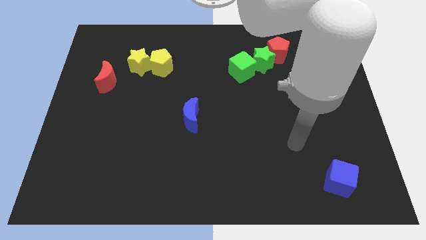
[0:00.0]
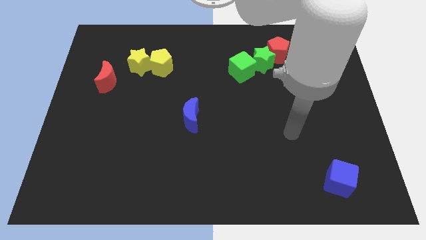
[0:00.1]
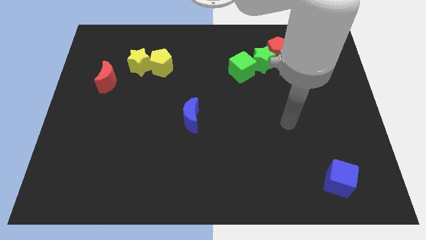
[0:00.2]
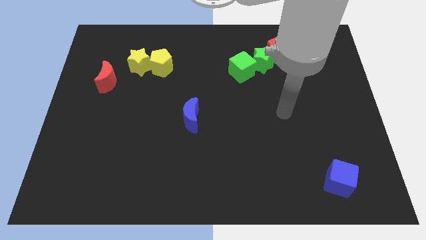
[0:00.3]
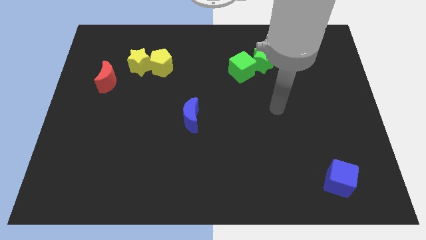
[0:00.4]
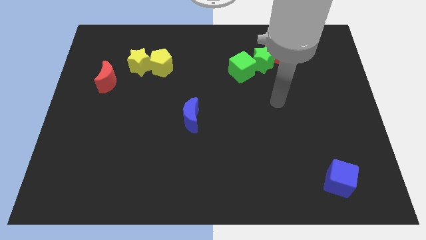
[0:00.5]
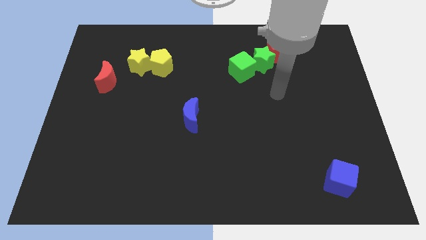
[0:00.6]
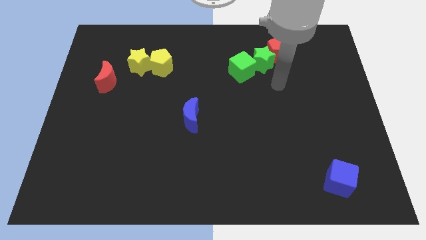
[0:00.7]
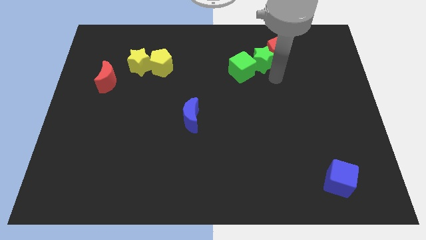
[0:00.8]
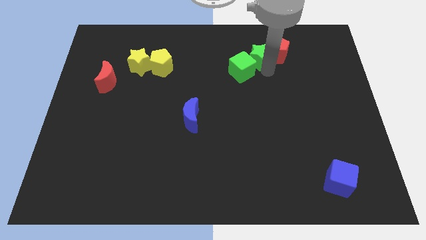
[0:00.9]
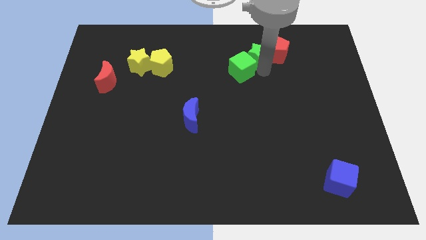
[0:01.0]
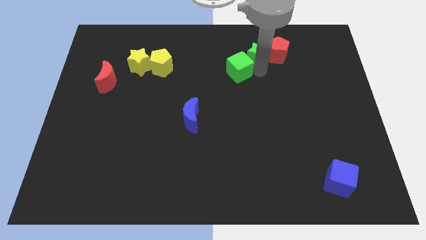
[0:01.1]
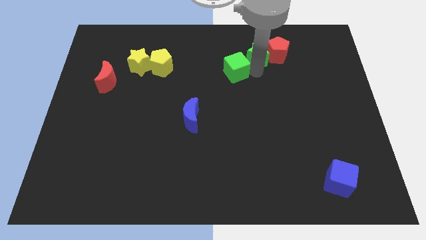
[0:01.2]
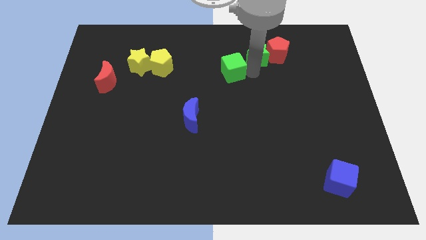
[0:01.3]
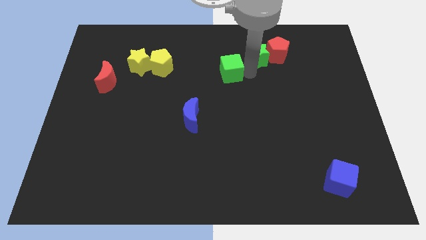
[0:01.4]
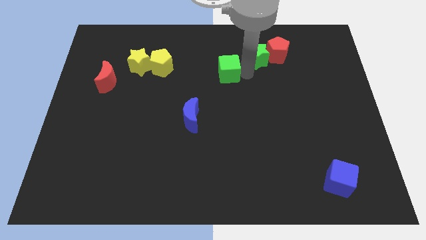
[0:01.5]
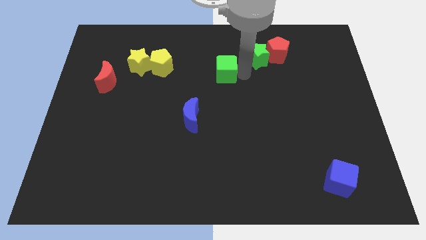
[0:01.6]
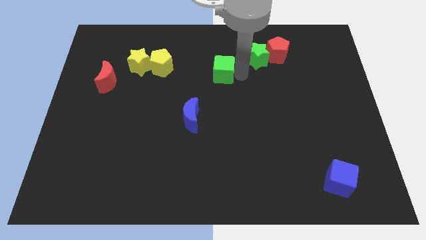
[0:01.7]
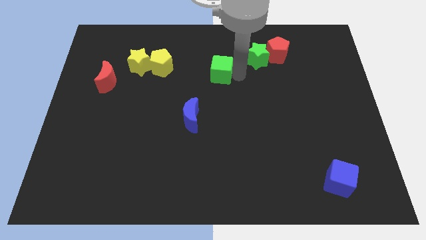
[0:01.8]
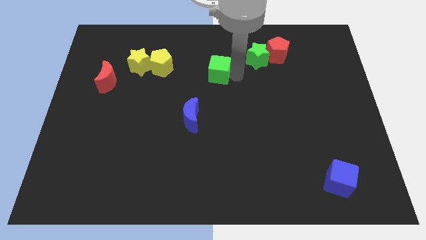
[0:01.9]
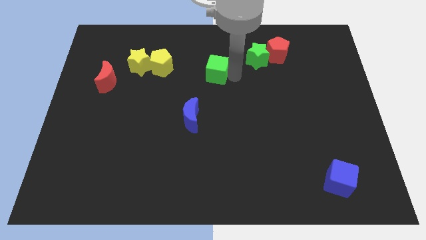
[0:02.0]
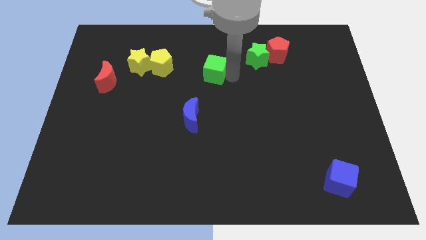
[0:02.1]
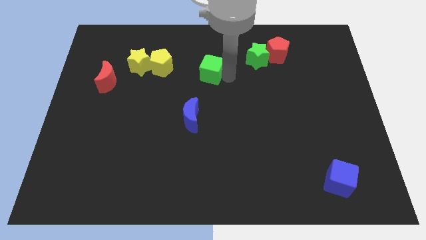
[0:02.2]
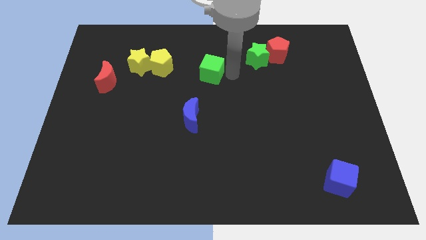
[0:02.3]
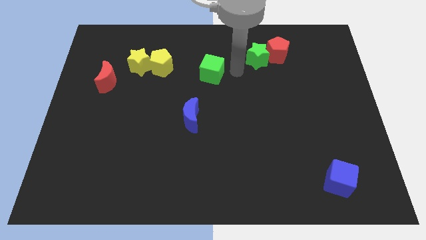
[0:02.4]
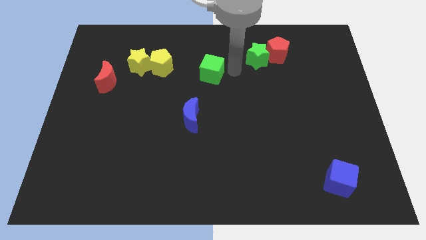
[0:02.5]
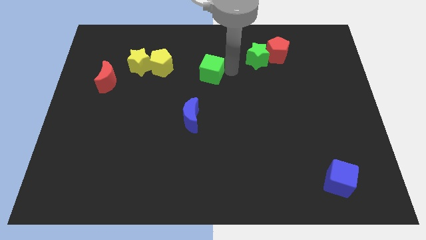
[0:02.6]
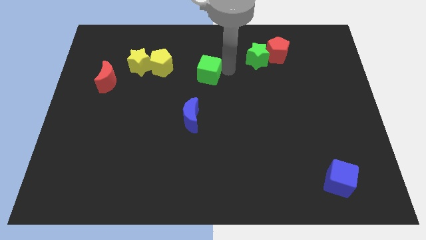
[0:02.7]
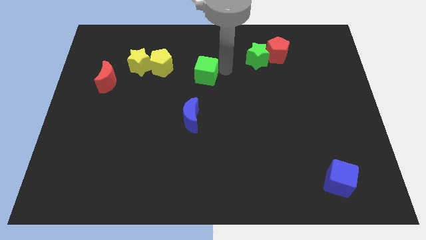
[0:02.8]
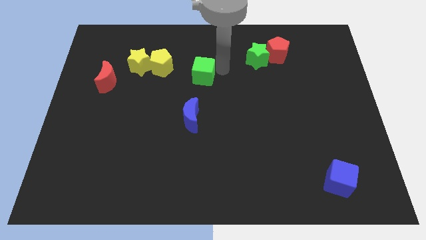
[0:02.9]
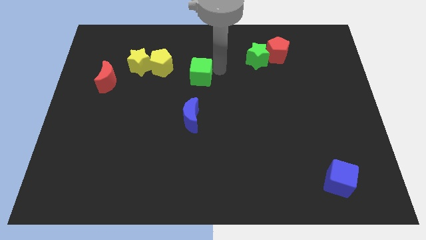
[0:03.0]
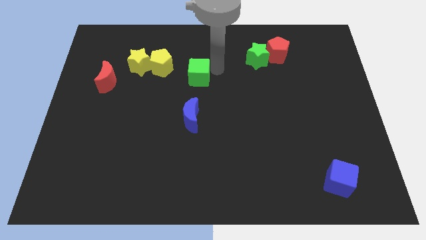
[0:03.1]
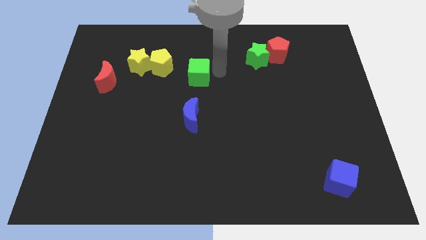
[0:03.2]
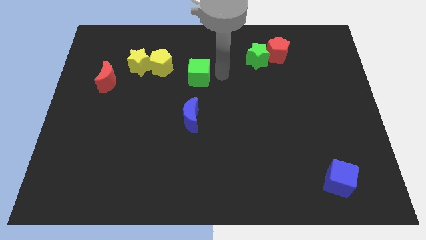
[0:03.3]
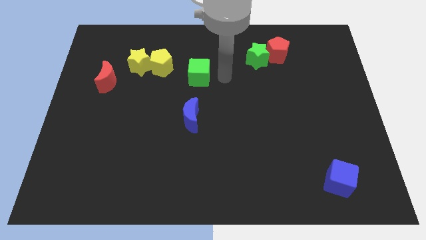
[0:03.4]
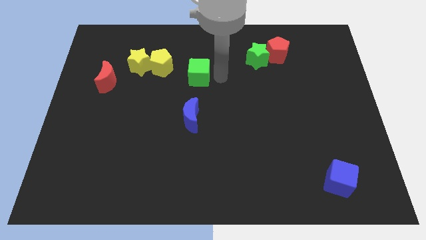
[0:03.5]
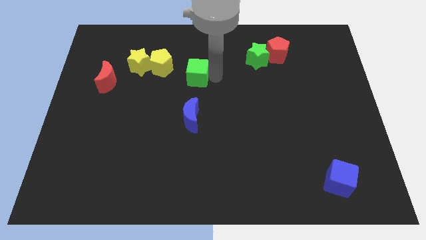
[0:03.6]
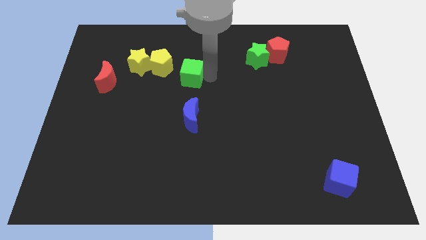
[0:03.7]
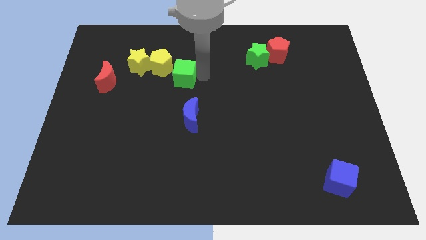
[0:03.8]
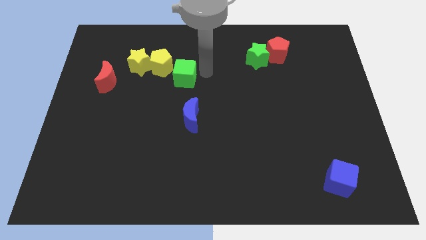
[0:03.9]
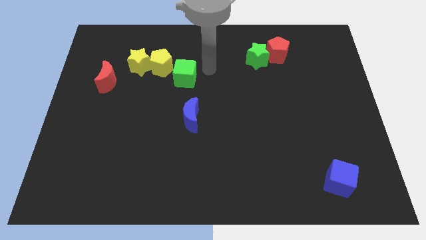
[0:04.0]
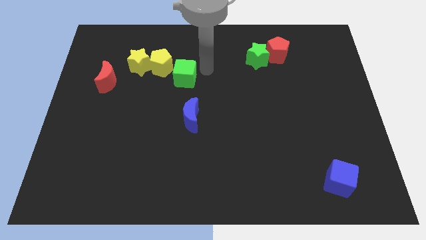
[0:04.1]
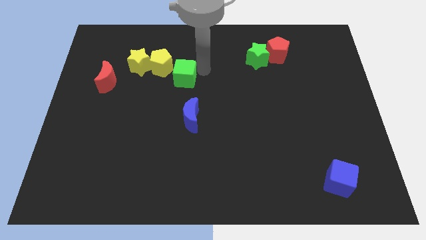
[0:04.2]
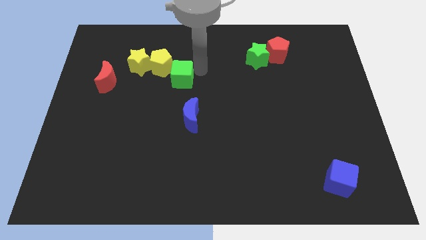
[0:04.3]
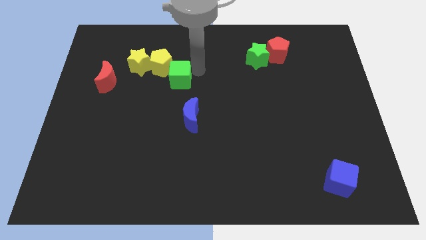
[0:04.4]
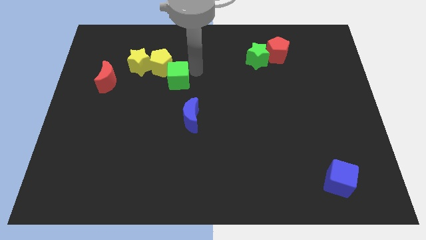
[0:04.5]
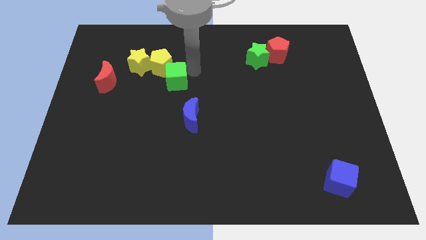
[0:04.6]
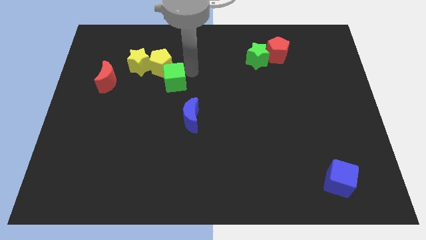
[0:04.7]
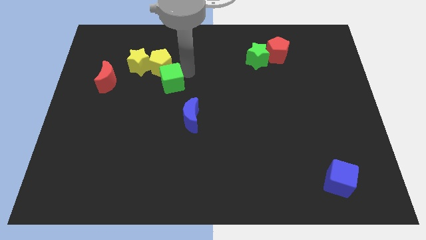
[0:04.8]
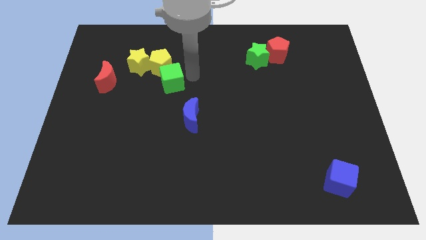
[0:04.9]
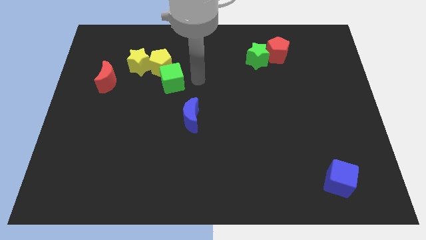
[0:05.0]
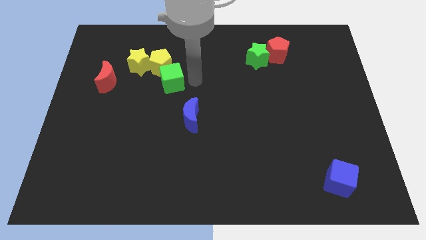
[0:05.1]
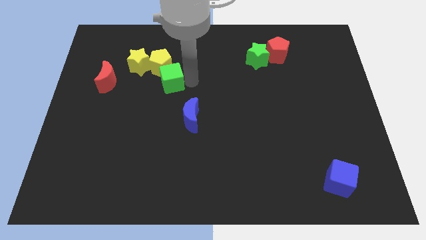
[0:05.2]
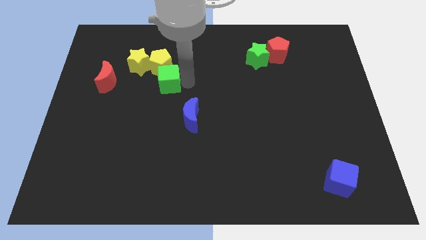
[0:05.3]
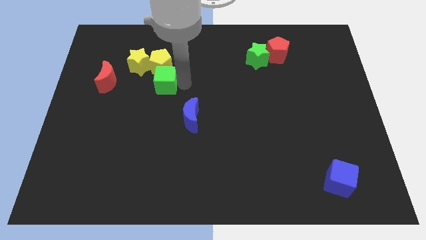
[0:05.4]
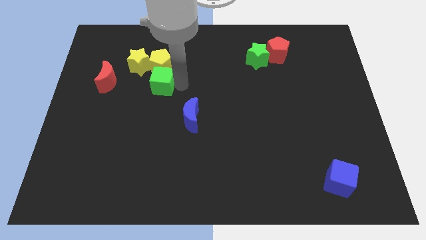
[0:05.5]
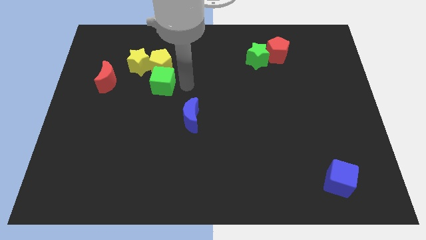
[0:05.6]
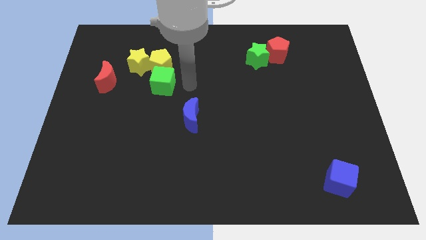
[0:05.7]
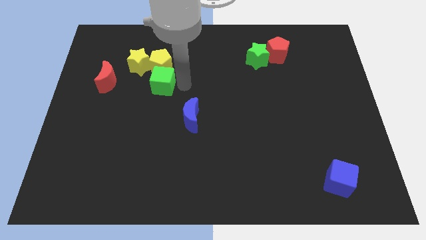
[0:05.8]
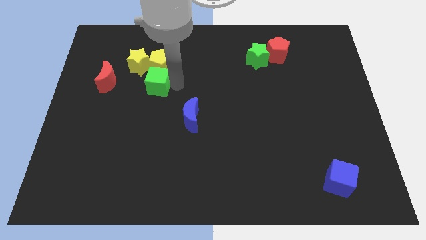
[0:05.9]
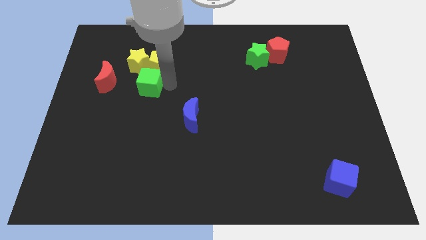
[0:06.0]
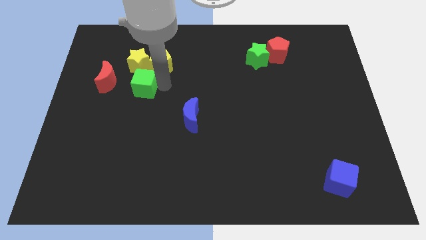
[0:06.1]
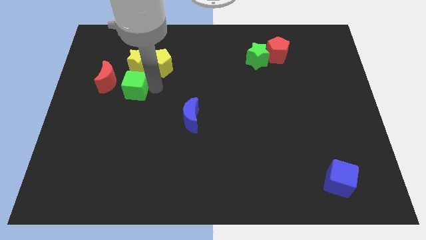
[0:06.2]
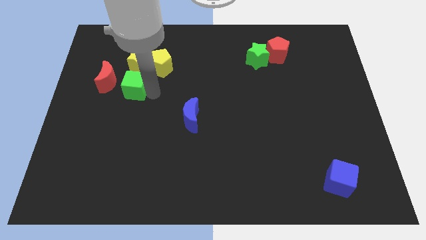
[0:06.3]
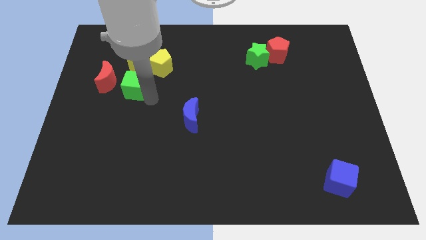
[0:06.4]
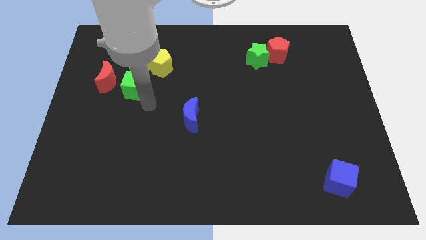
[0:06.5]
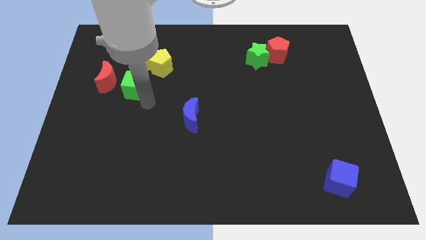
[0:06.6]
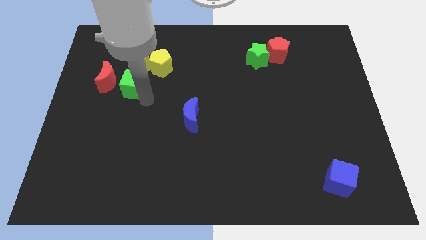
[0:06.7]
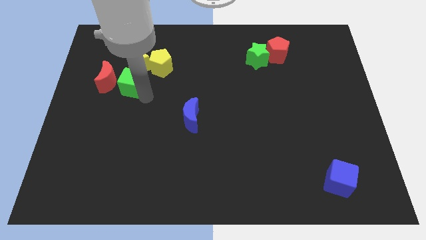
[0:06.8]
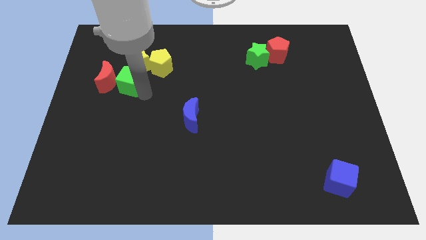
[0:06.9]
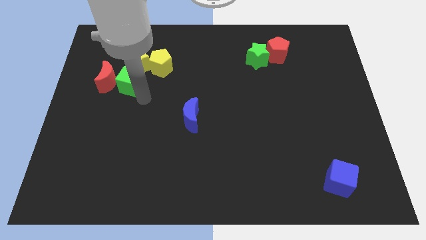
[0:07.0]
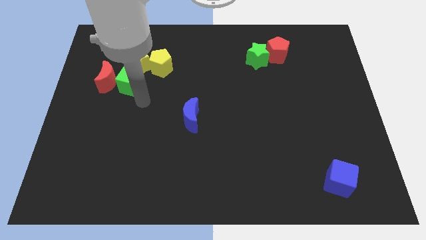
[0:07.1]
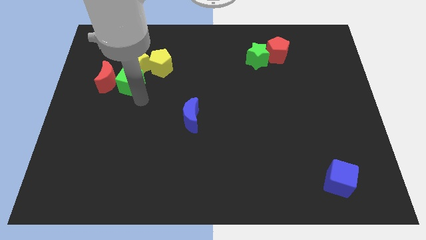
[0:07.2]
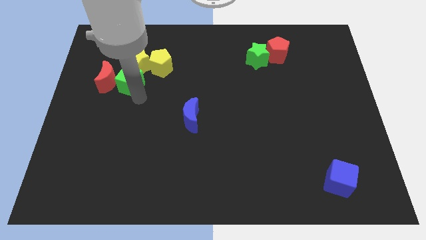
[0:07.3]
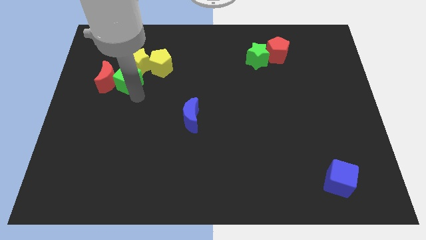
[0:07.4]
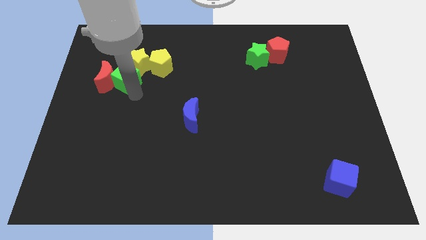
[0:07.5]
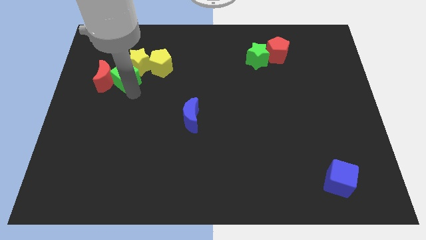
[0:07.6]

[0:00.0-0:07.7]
put the green cube just left of the yellow pentagon
